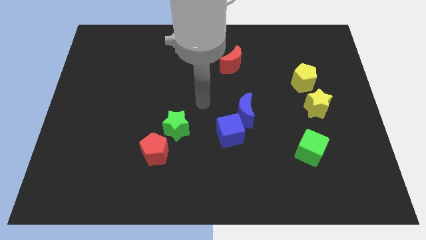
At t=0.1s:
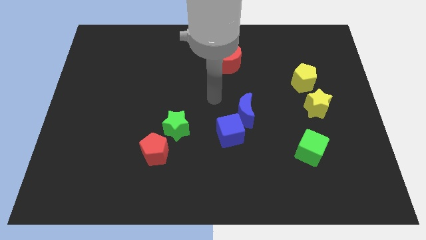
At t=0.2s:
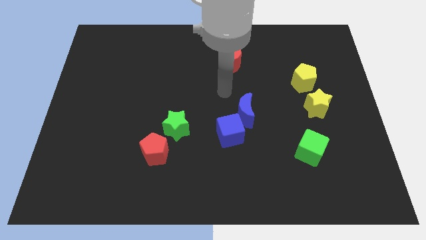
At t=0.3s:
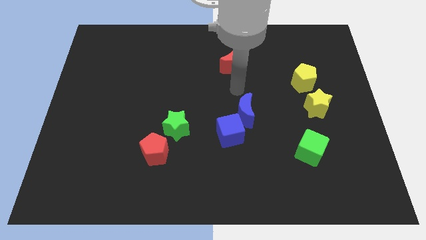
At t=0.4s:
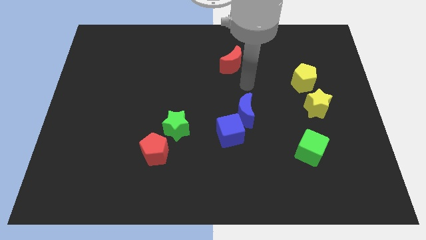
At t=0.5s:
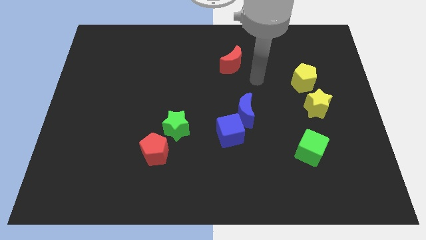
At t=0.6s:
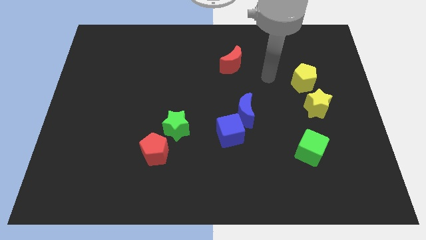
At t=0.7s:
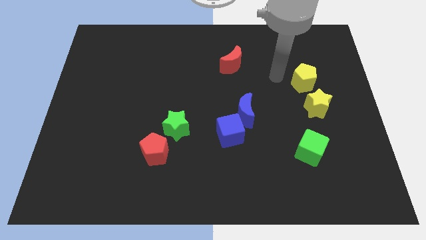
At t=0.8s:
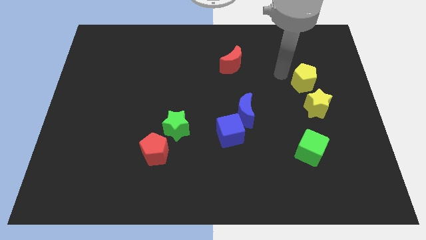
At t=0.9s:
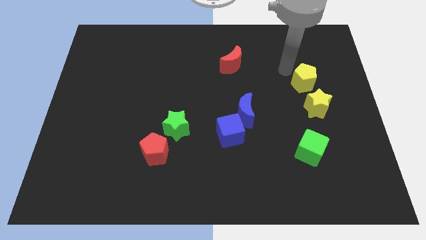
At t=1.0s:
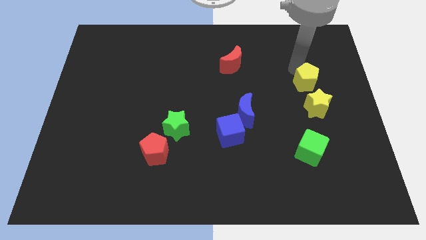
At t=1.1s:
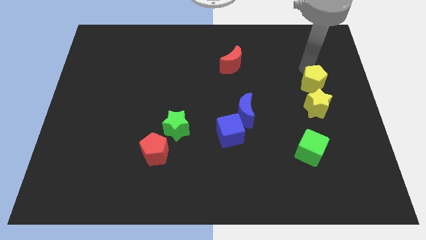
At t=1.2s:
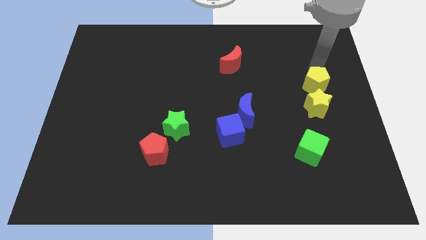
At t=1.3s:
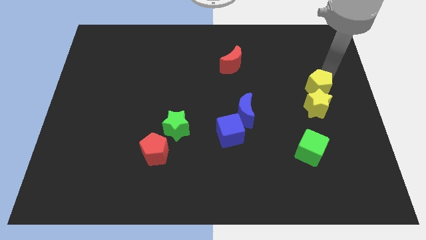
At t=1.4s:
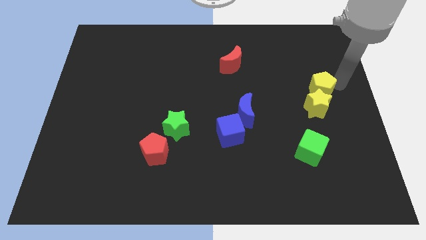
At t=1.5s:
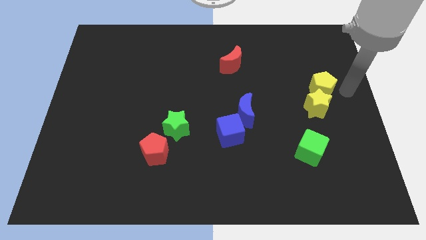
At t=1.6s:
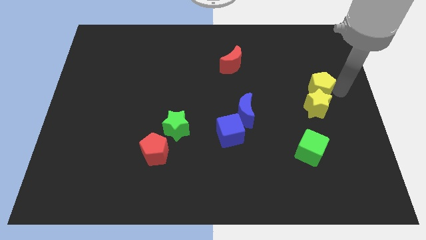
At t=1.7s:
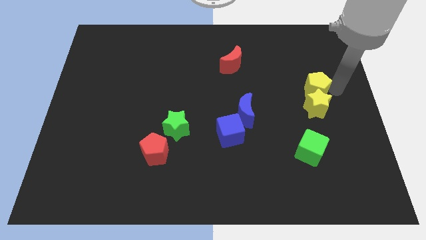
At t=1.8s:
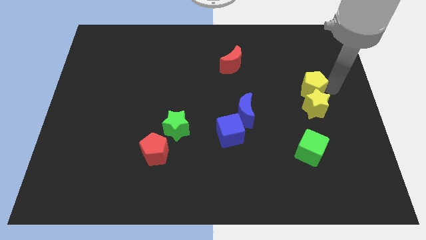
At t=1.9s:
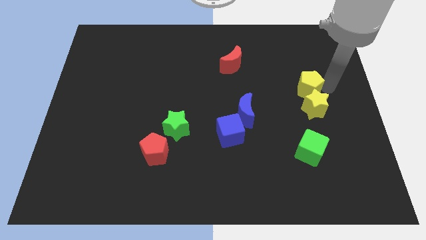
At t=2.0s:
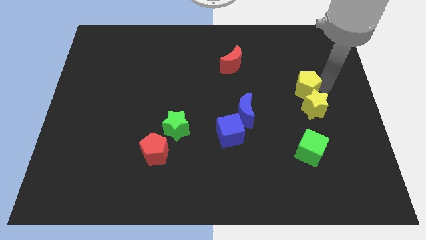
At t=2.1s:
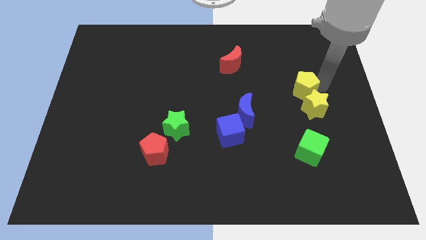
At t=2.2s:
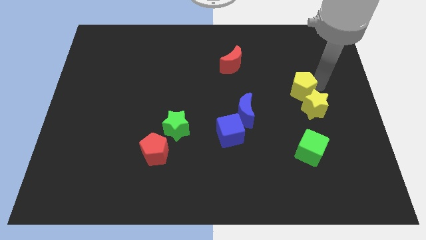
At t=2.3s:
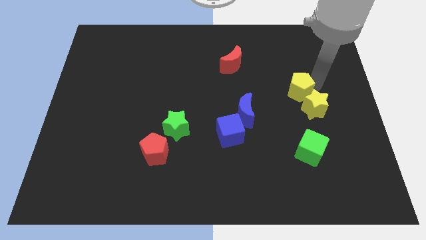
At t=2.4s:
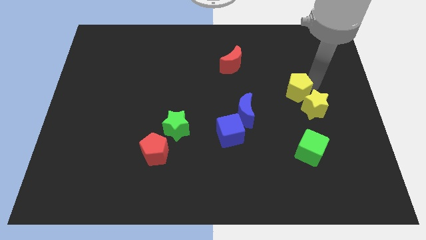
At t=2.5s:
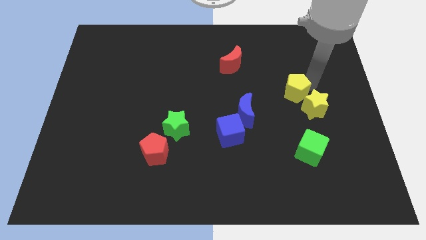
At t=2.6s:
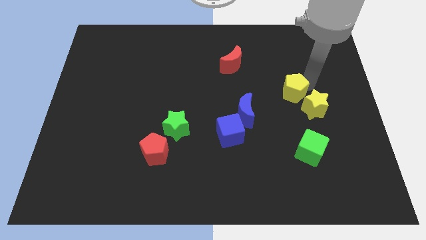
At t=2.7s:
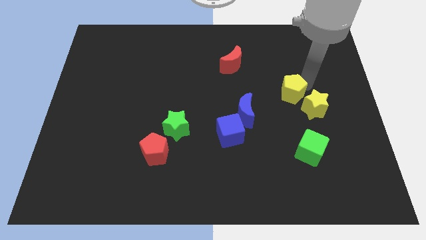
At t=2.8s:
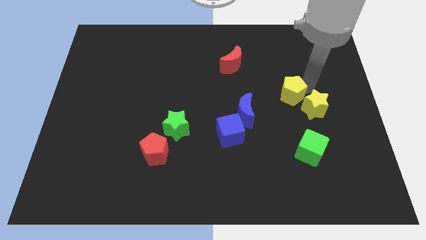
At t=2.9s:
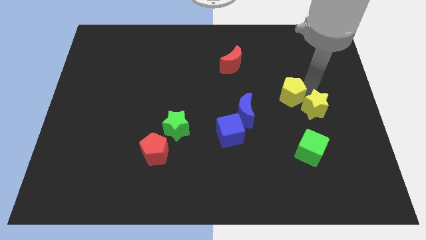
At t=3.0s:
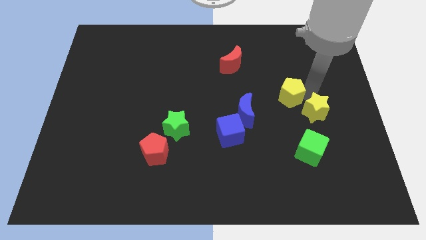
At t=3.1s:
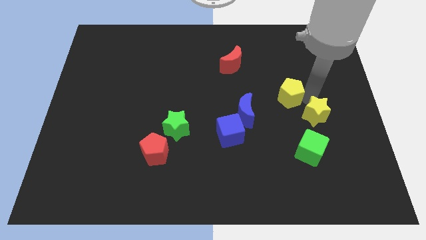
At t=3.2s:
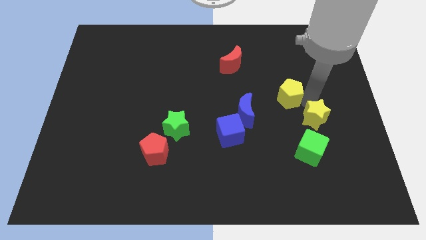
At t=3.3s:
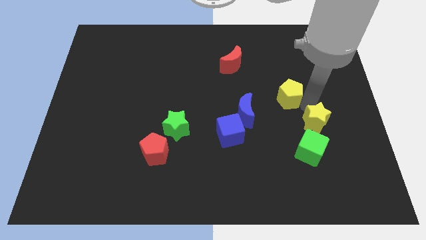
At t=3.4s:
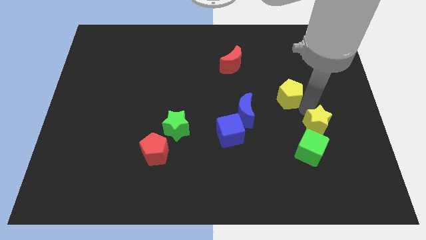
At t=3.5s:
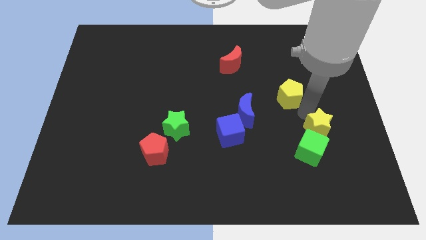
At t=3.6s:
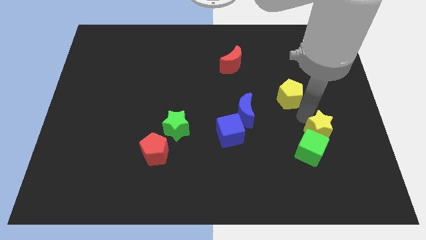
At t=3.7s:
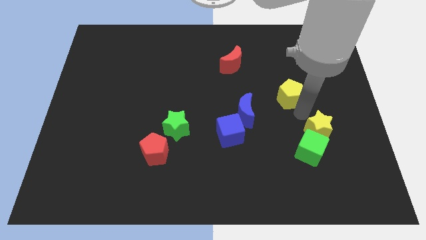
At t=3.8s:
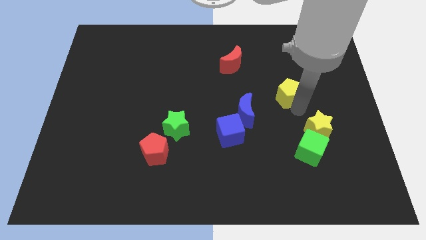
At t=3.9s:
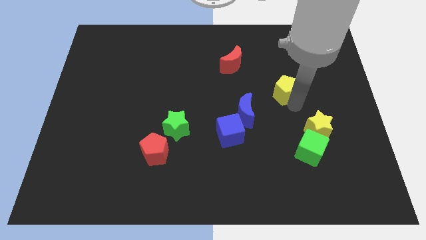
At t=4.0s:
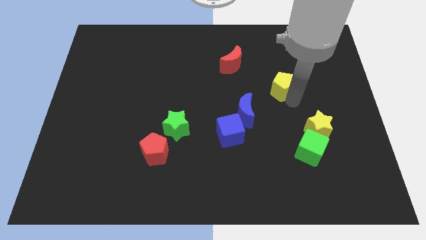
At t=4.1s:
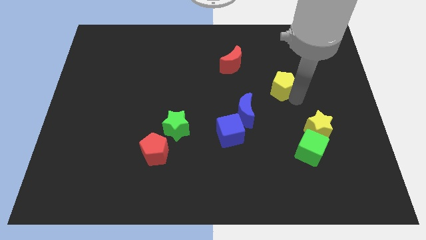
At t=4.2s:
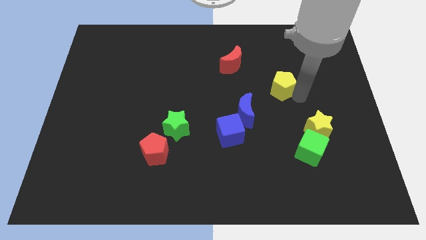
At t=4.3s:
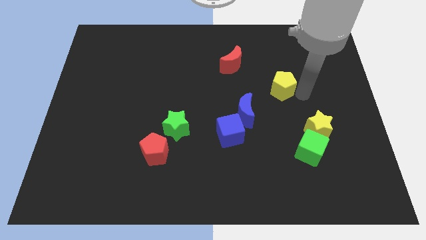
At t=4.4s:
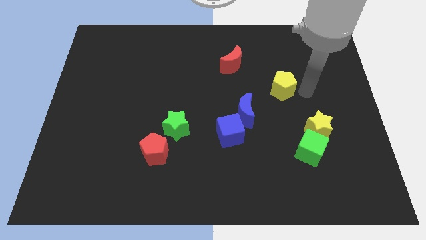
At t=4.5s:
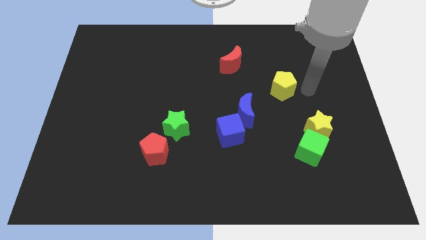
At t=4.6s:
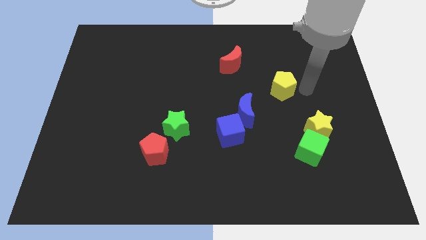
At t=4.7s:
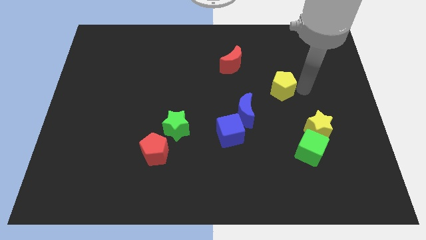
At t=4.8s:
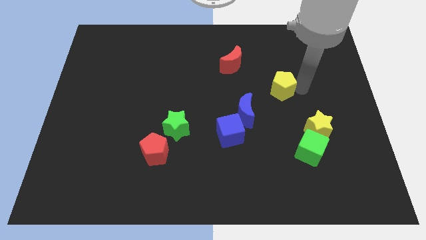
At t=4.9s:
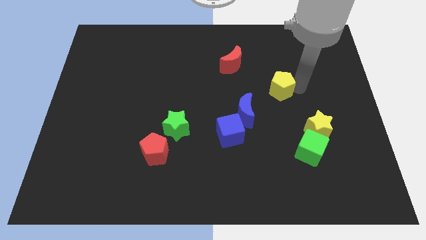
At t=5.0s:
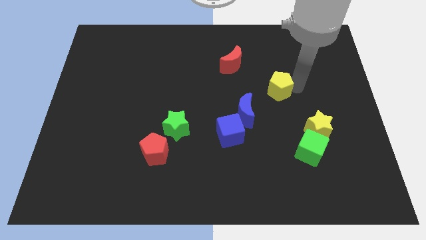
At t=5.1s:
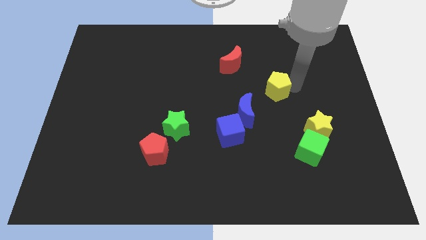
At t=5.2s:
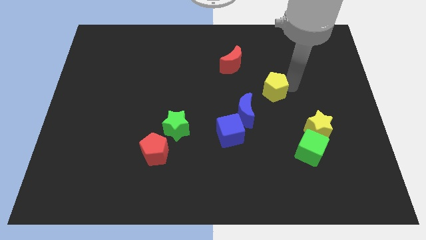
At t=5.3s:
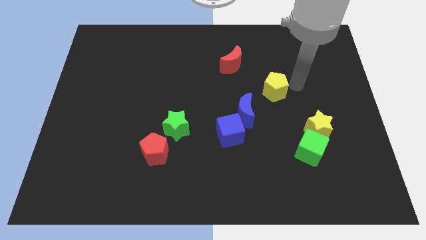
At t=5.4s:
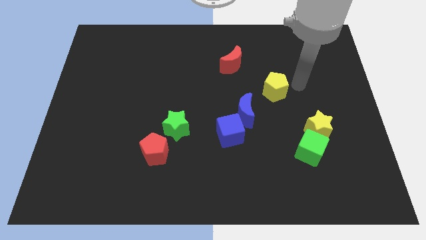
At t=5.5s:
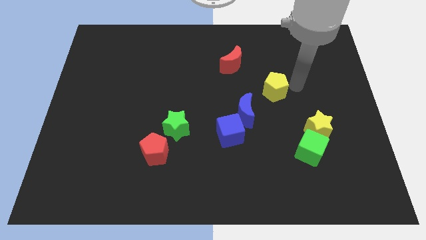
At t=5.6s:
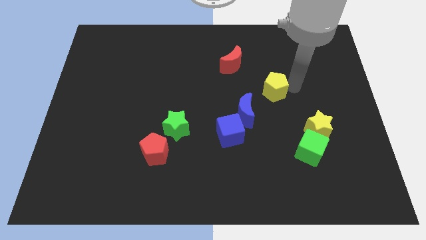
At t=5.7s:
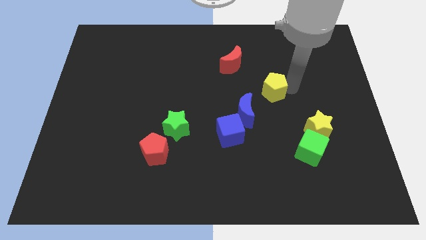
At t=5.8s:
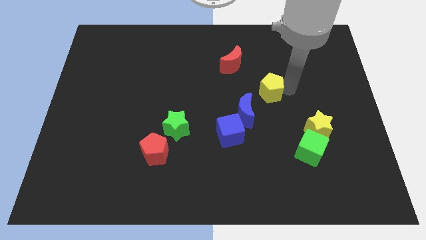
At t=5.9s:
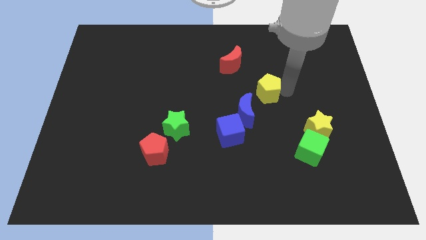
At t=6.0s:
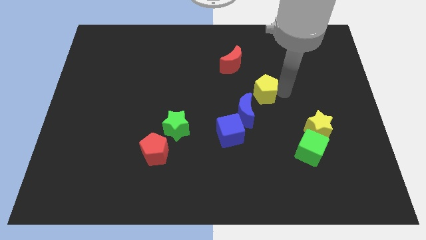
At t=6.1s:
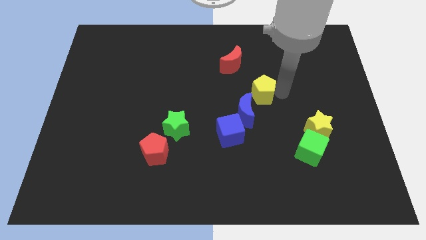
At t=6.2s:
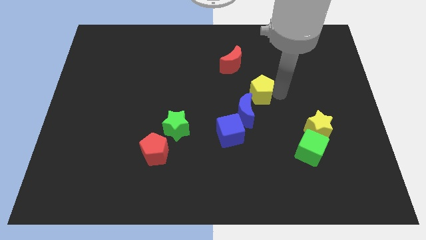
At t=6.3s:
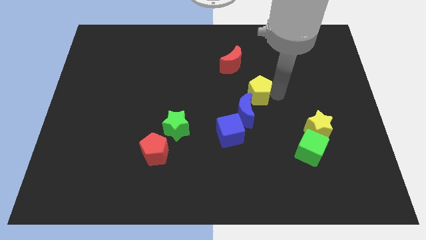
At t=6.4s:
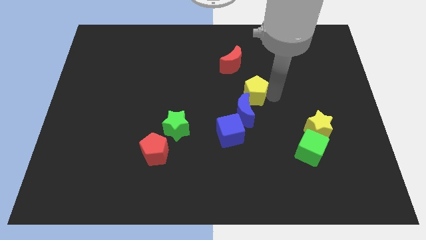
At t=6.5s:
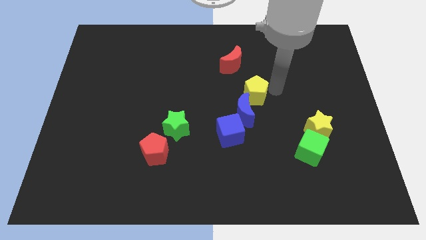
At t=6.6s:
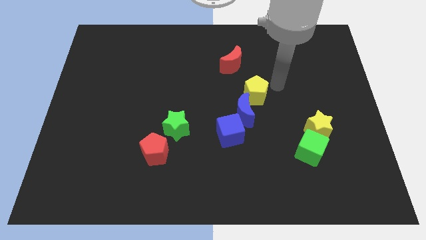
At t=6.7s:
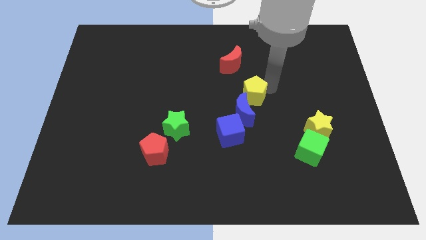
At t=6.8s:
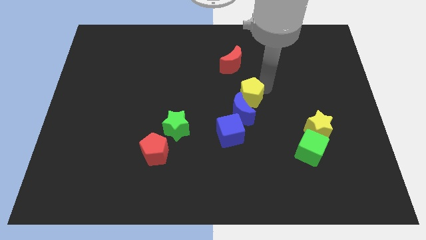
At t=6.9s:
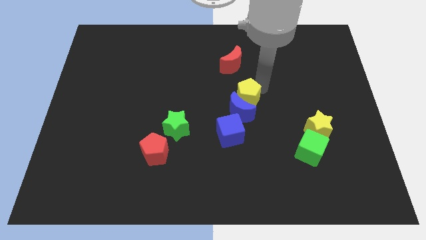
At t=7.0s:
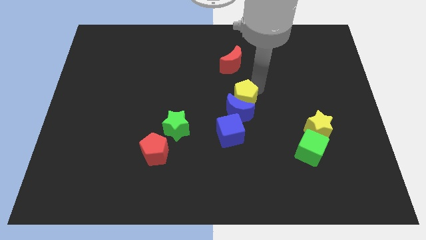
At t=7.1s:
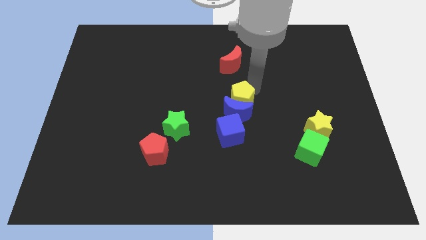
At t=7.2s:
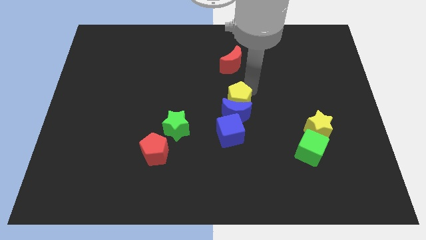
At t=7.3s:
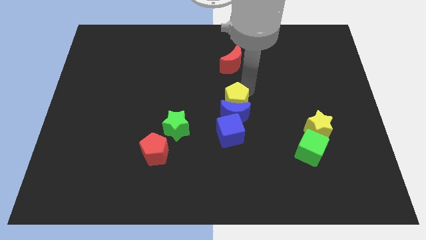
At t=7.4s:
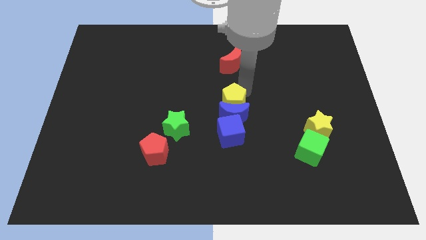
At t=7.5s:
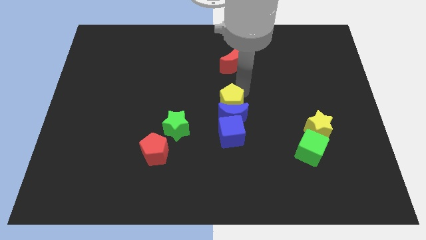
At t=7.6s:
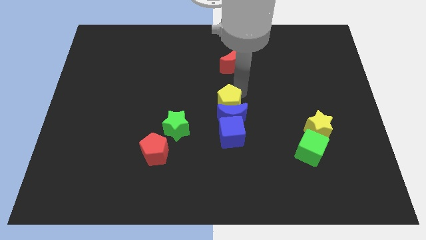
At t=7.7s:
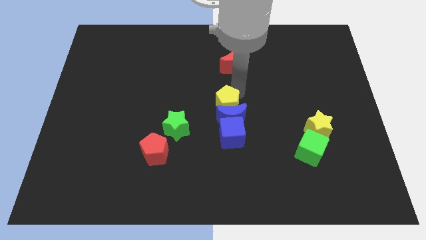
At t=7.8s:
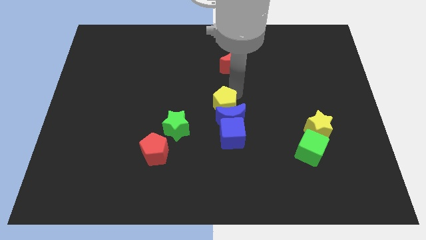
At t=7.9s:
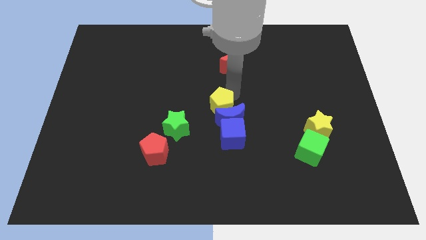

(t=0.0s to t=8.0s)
push the yellow pentagon to the top right side of the green star
